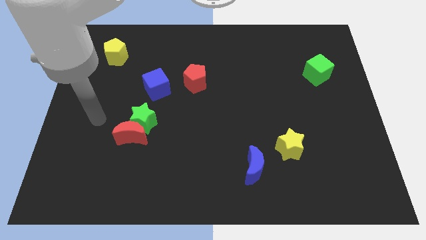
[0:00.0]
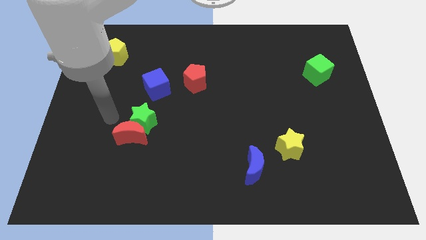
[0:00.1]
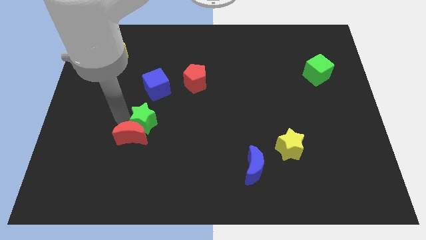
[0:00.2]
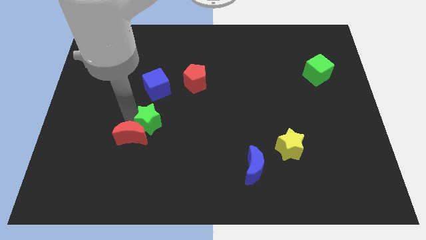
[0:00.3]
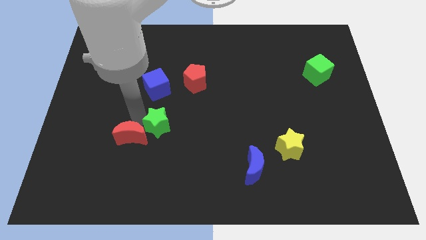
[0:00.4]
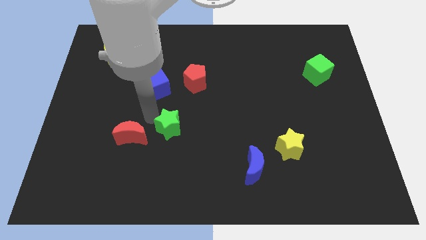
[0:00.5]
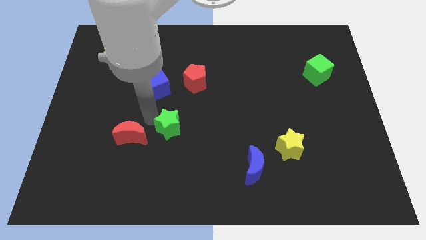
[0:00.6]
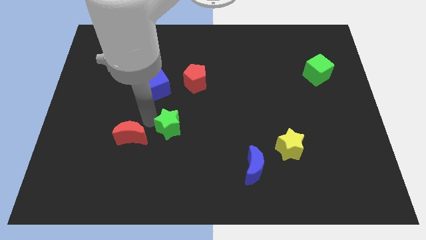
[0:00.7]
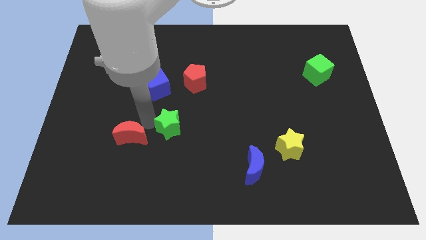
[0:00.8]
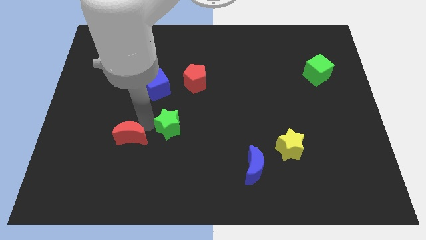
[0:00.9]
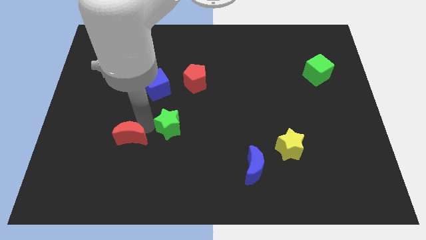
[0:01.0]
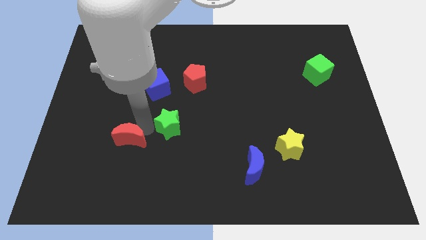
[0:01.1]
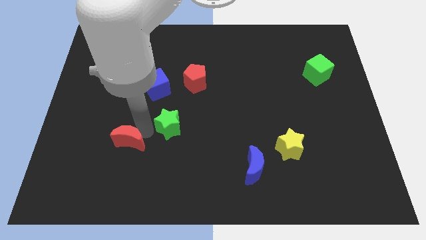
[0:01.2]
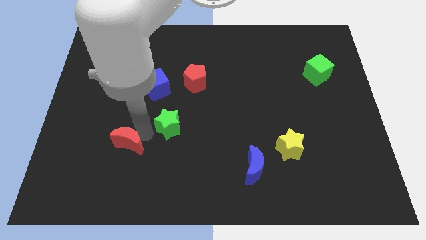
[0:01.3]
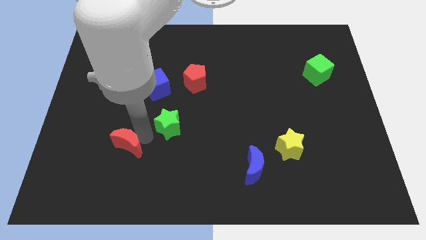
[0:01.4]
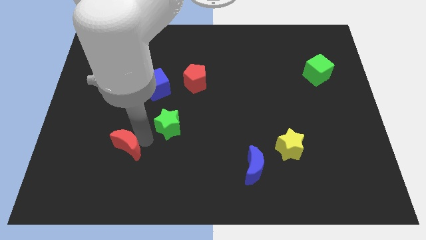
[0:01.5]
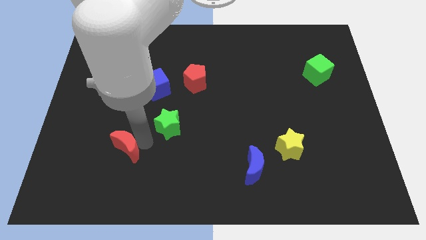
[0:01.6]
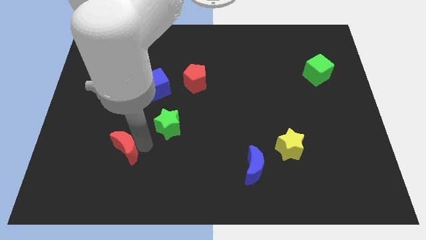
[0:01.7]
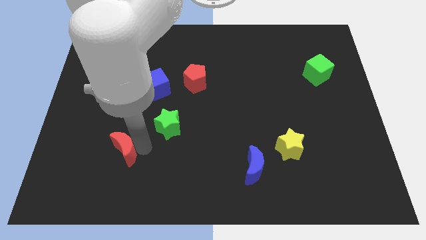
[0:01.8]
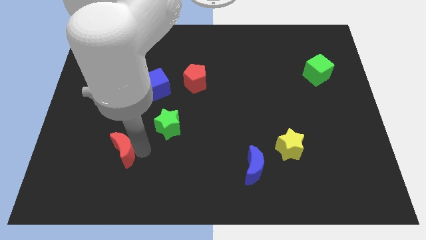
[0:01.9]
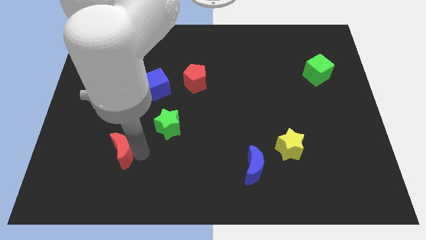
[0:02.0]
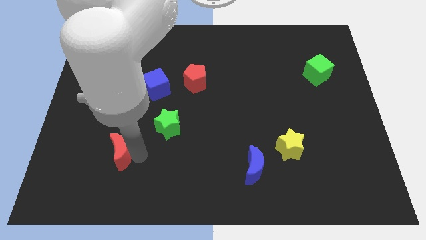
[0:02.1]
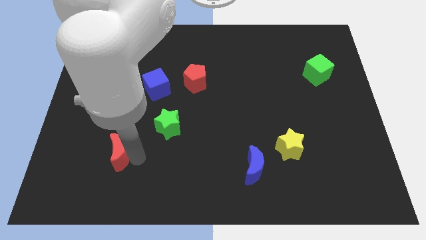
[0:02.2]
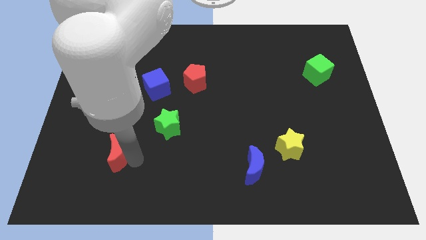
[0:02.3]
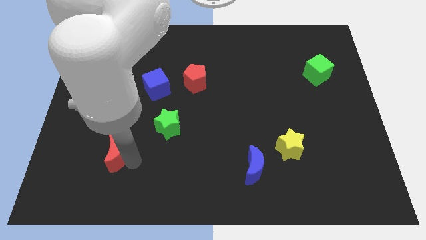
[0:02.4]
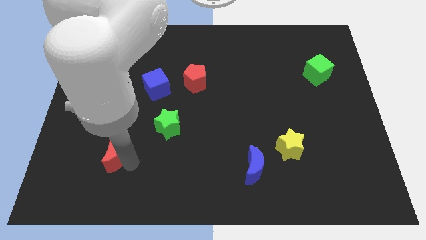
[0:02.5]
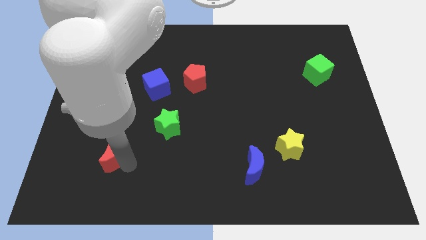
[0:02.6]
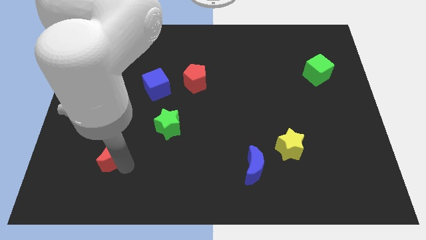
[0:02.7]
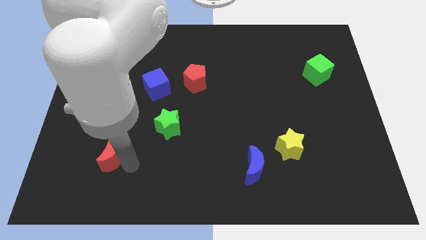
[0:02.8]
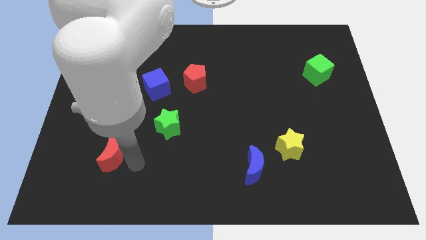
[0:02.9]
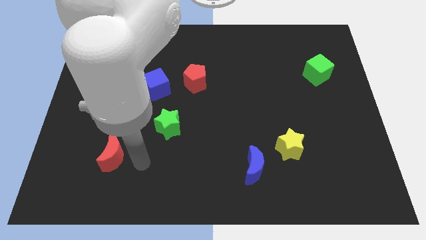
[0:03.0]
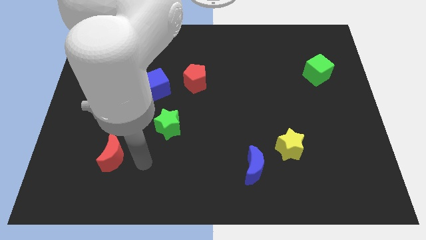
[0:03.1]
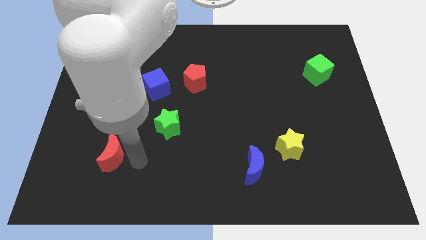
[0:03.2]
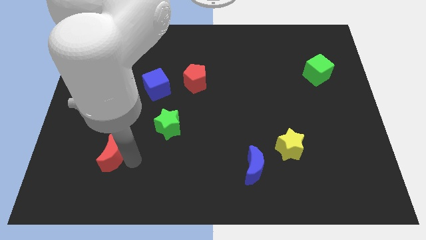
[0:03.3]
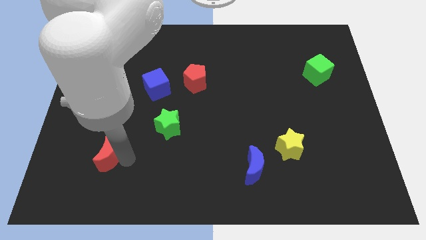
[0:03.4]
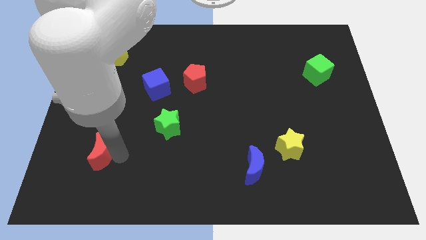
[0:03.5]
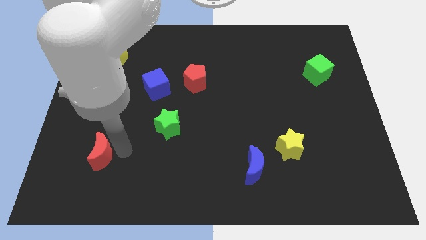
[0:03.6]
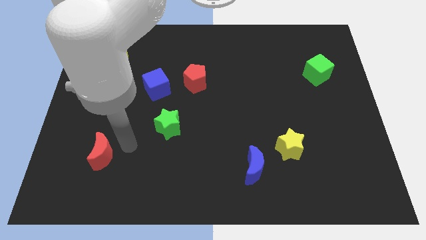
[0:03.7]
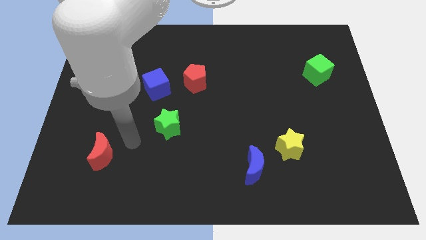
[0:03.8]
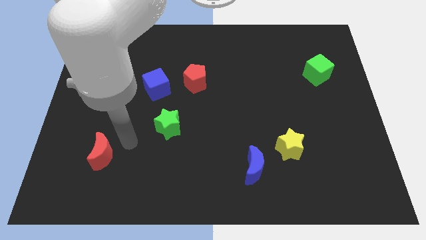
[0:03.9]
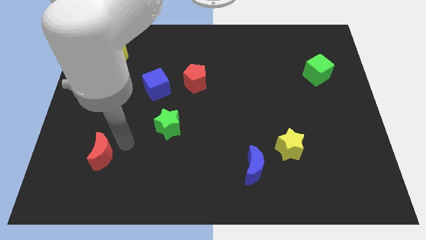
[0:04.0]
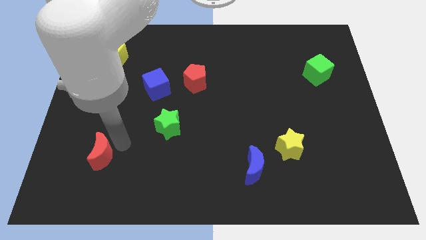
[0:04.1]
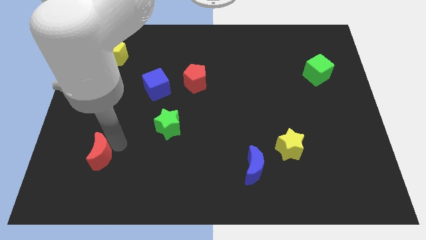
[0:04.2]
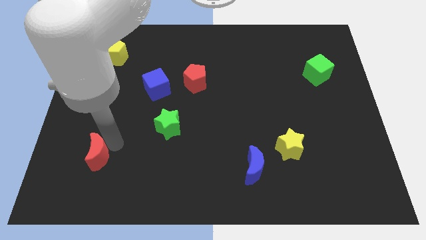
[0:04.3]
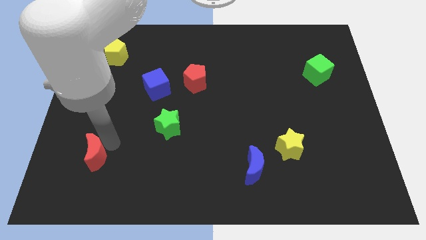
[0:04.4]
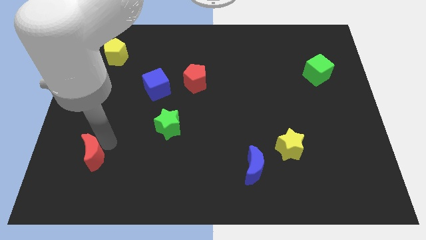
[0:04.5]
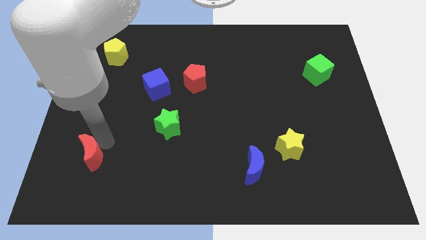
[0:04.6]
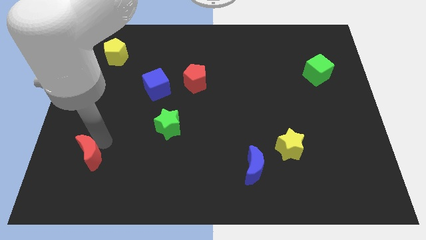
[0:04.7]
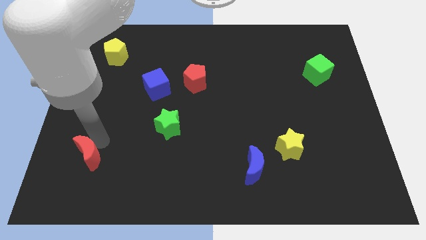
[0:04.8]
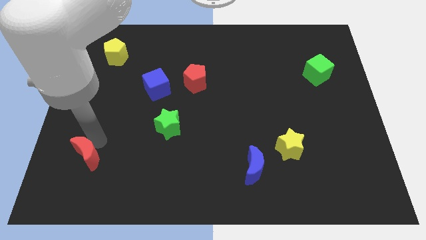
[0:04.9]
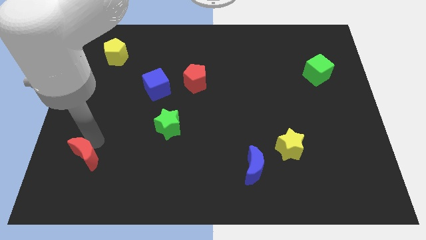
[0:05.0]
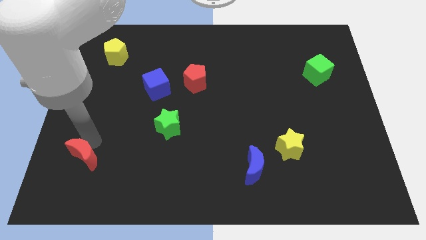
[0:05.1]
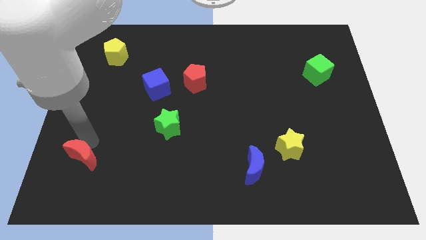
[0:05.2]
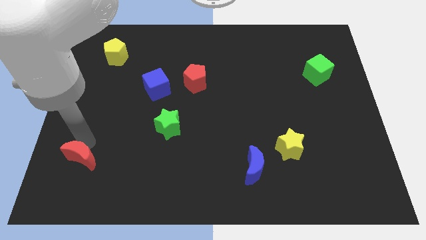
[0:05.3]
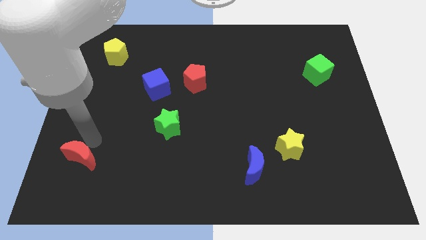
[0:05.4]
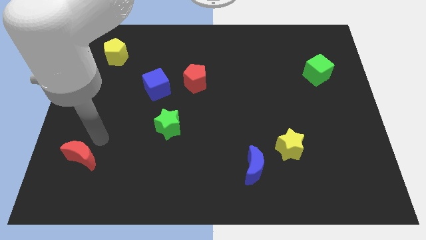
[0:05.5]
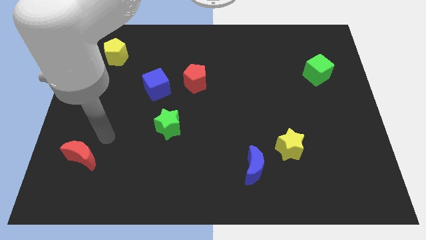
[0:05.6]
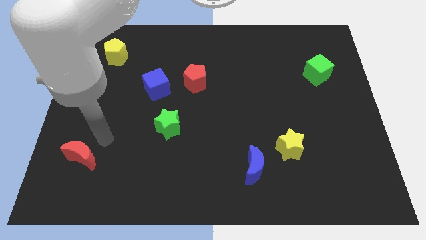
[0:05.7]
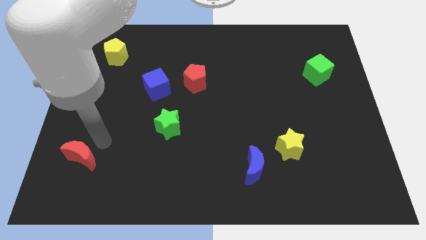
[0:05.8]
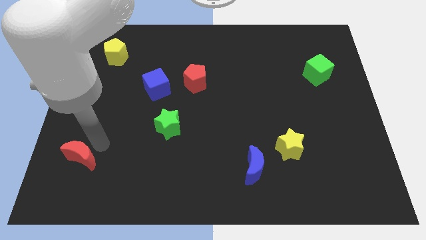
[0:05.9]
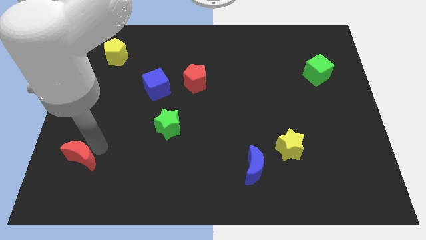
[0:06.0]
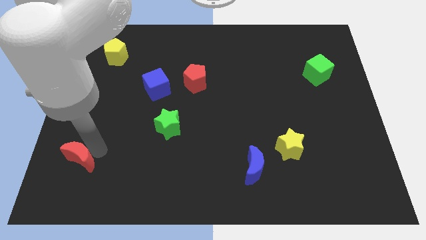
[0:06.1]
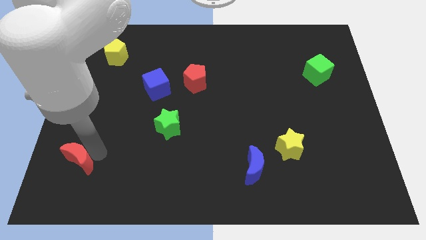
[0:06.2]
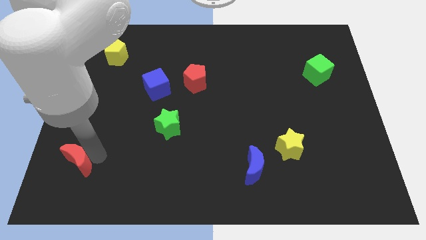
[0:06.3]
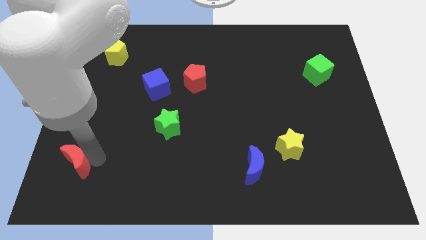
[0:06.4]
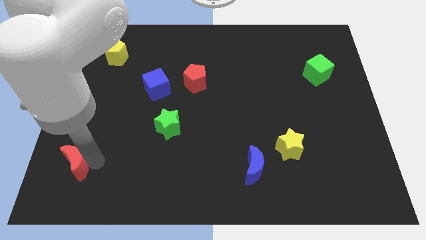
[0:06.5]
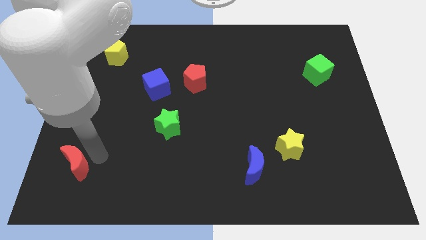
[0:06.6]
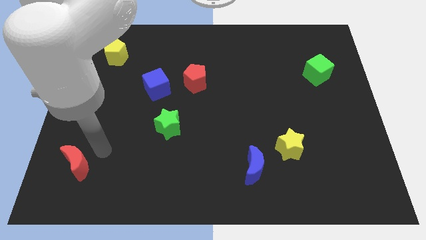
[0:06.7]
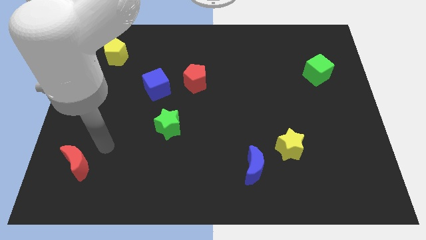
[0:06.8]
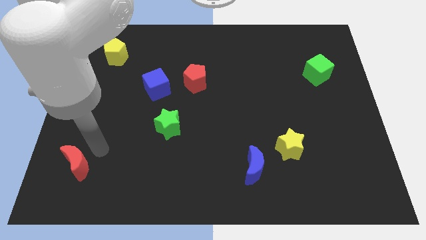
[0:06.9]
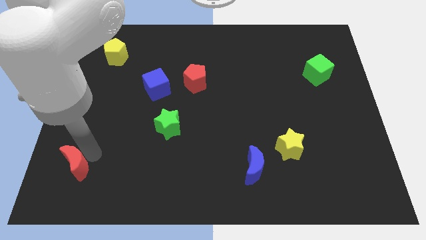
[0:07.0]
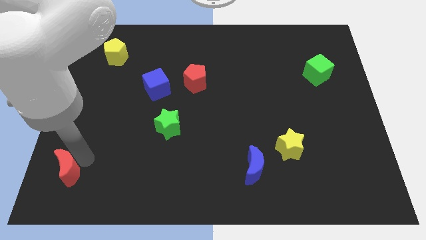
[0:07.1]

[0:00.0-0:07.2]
put the red moon to the lower left corner

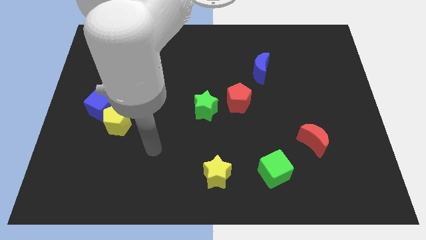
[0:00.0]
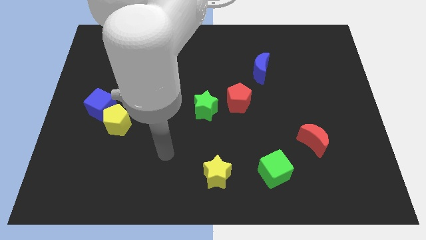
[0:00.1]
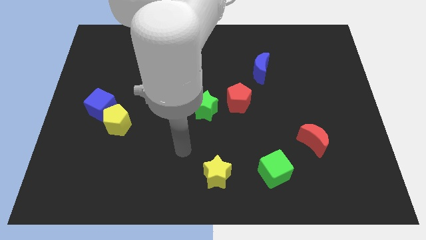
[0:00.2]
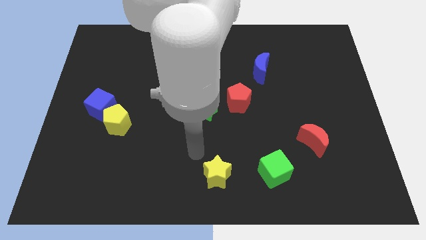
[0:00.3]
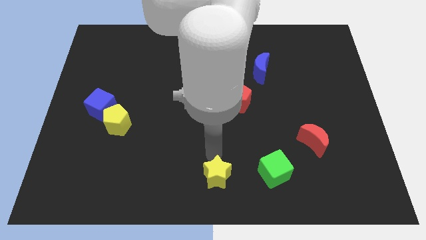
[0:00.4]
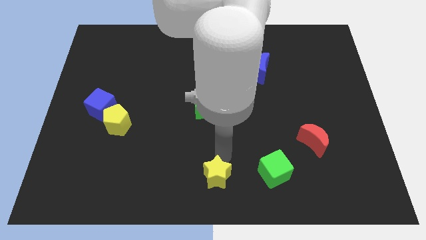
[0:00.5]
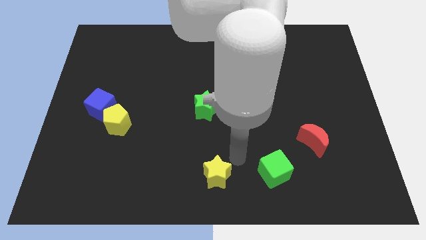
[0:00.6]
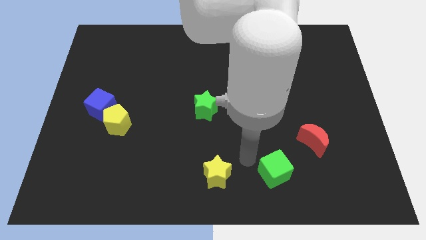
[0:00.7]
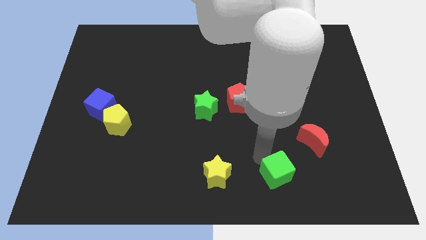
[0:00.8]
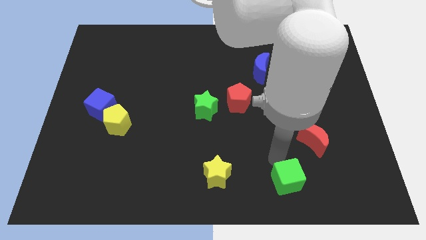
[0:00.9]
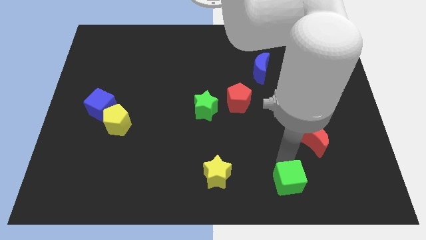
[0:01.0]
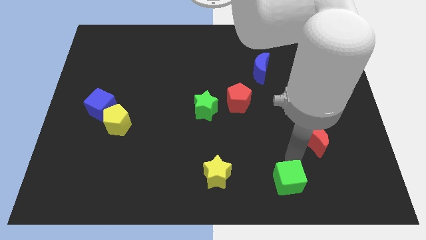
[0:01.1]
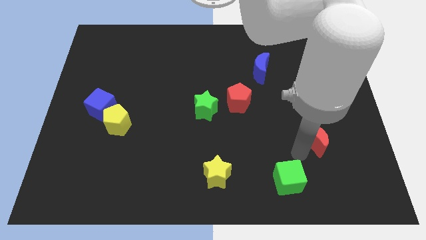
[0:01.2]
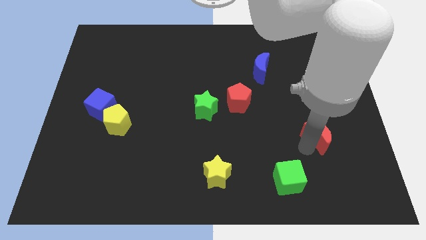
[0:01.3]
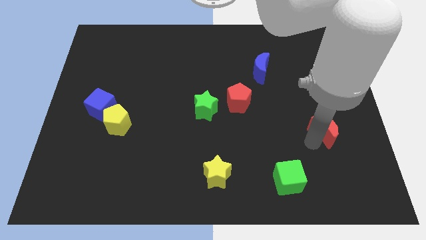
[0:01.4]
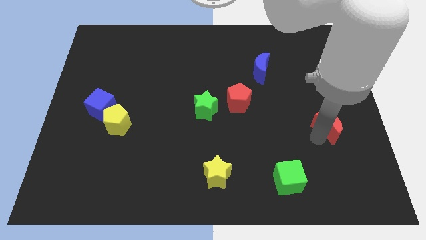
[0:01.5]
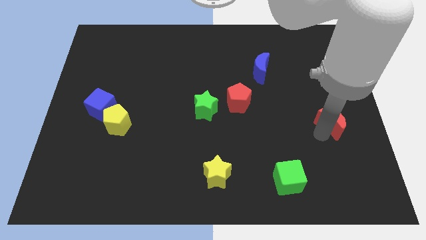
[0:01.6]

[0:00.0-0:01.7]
move the red moon to the right side of the board
